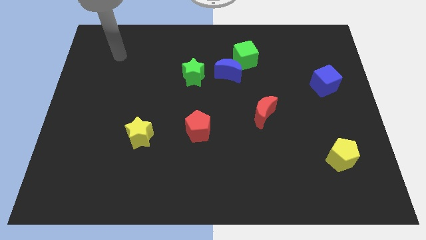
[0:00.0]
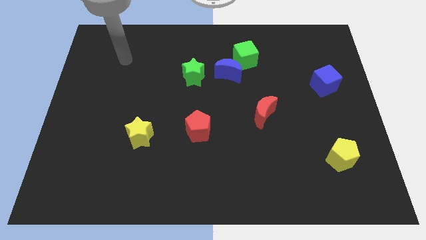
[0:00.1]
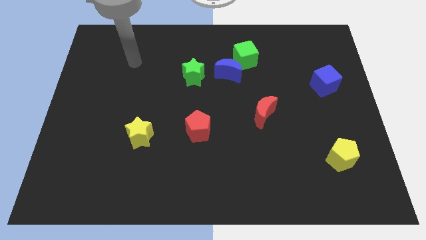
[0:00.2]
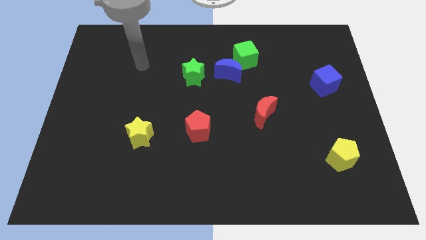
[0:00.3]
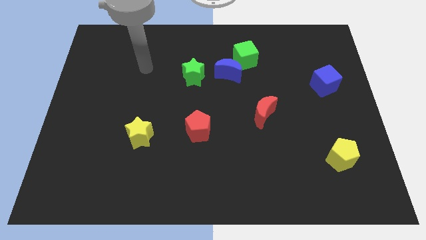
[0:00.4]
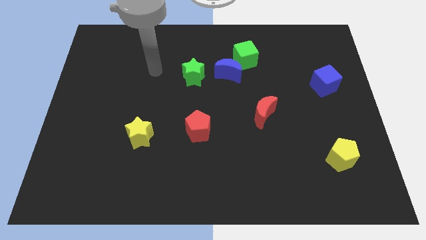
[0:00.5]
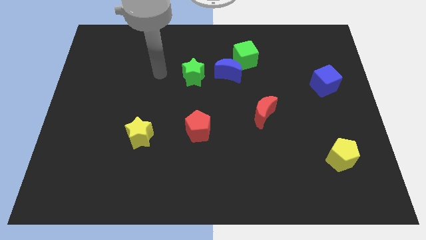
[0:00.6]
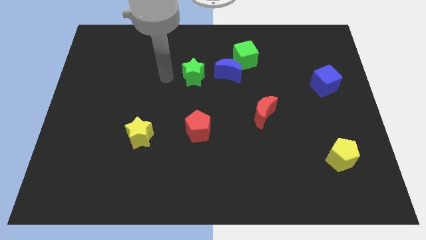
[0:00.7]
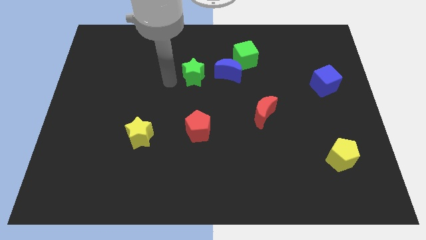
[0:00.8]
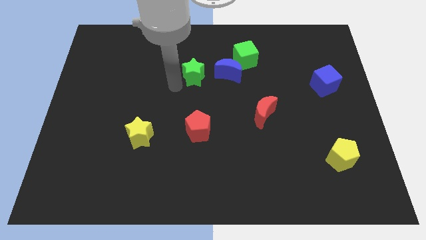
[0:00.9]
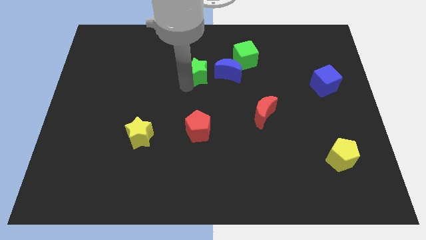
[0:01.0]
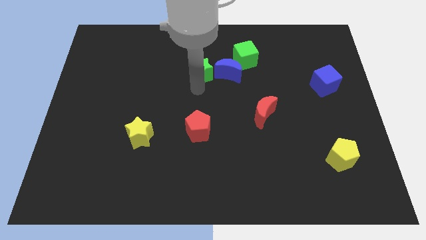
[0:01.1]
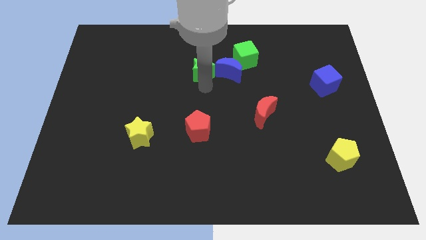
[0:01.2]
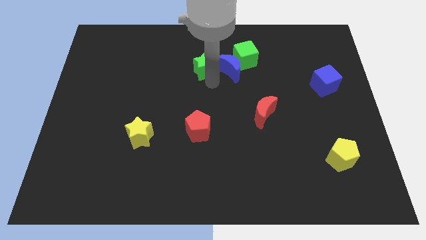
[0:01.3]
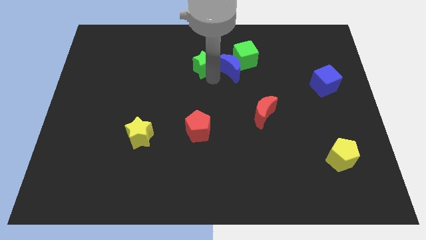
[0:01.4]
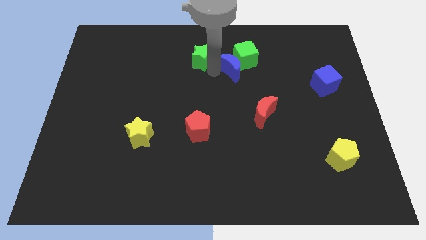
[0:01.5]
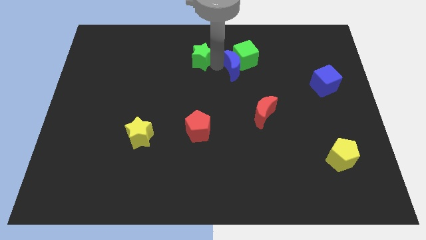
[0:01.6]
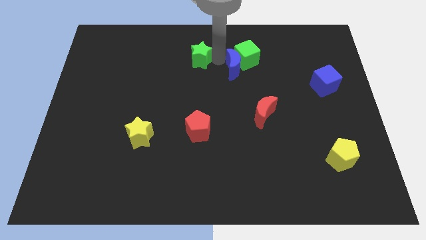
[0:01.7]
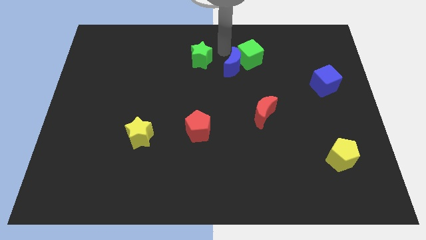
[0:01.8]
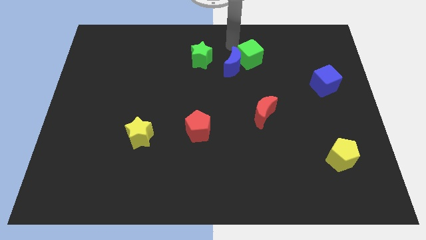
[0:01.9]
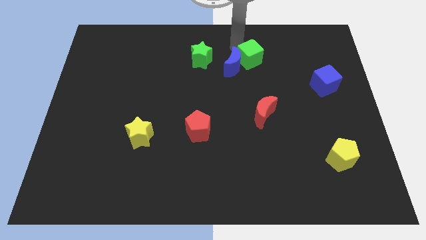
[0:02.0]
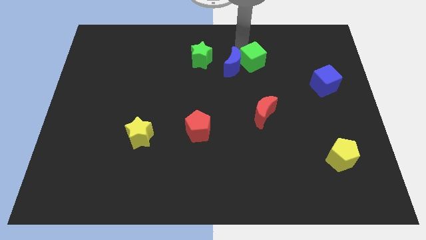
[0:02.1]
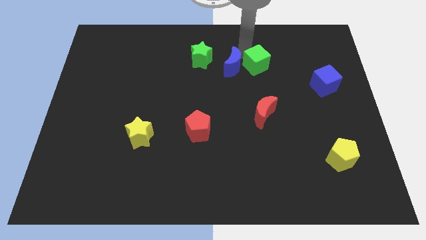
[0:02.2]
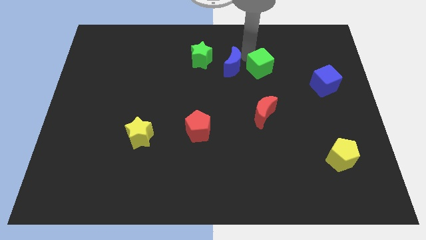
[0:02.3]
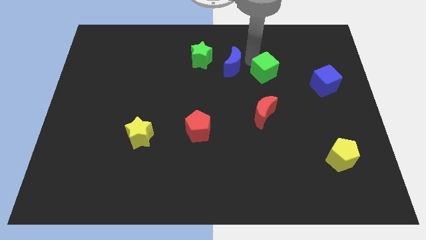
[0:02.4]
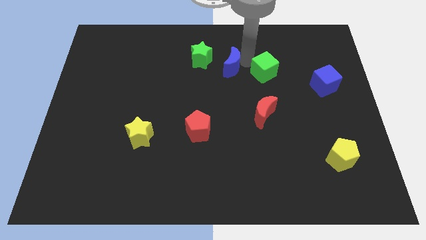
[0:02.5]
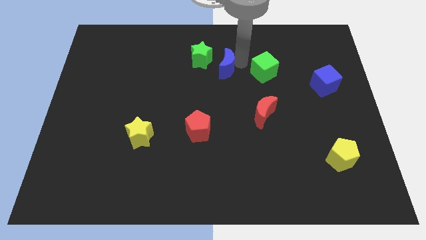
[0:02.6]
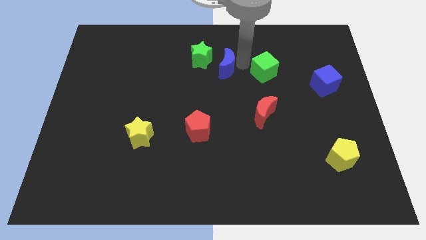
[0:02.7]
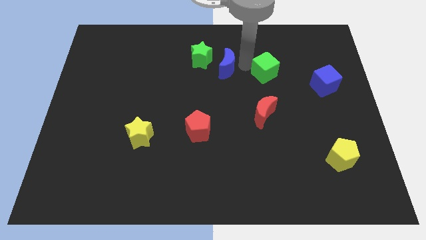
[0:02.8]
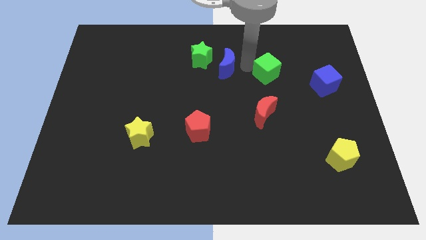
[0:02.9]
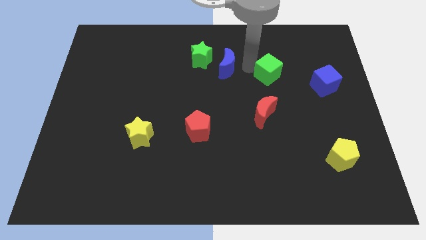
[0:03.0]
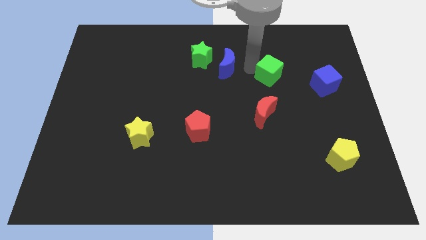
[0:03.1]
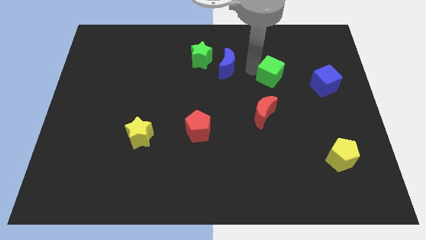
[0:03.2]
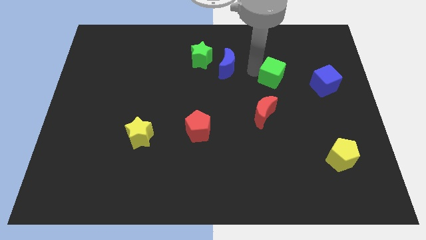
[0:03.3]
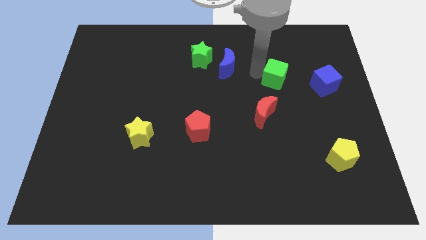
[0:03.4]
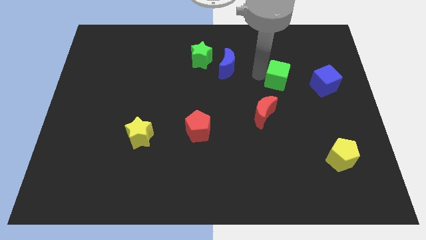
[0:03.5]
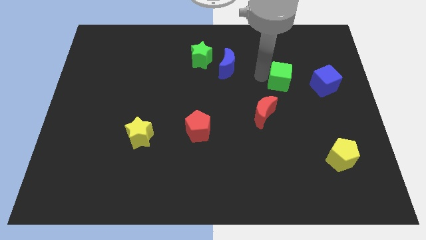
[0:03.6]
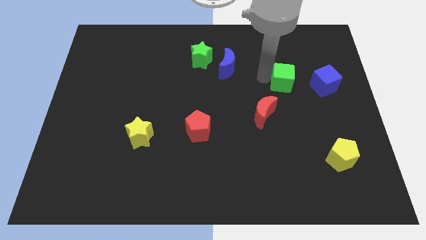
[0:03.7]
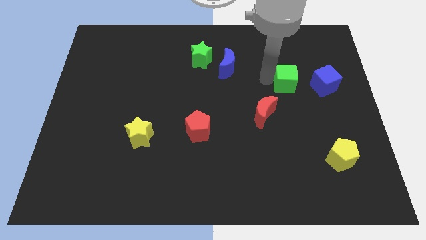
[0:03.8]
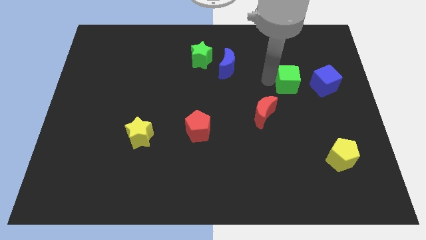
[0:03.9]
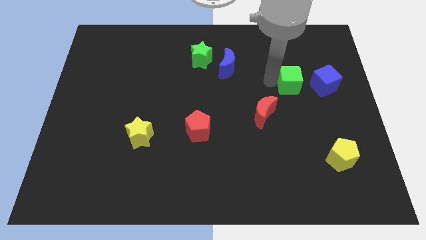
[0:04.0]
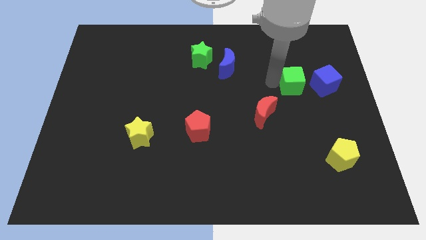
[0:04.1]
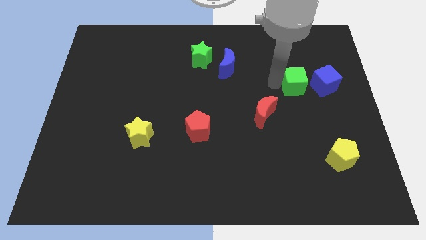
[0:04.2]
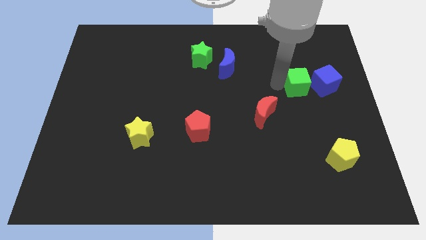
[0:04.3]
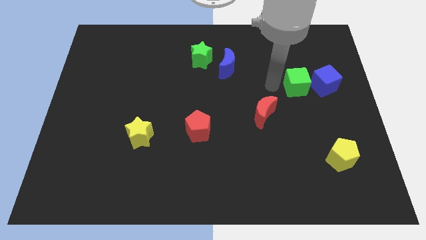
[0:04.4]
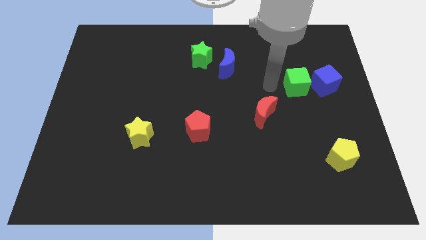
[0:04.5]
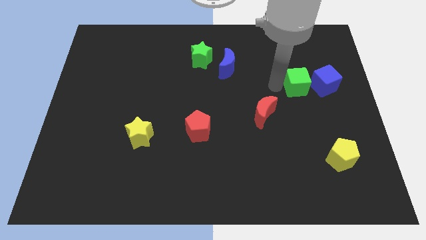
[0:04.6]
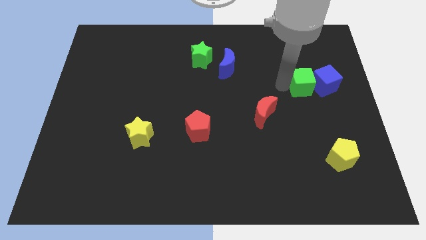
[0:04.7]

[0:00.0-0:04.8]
slide the green cube next to the blue cube

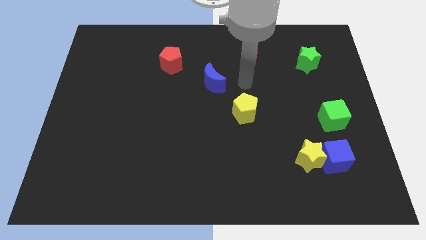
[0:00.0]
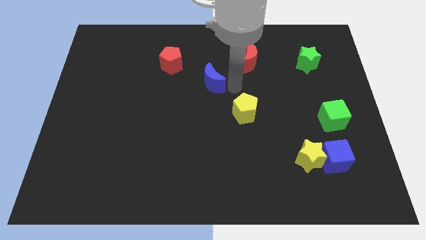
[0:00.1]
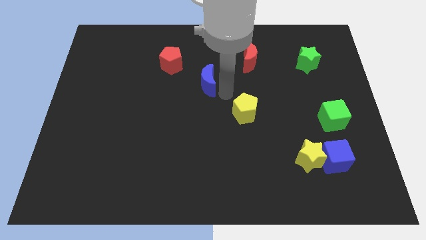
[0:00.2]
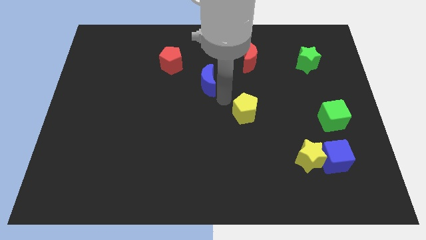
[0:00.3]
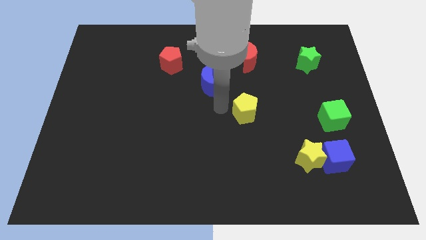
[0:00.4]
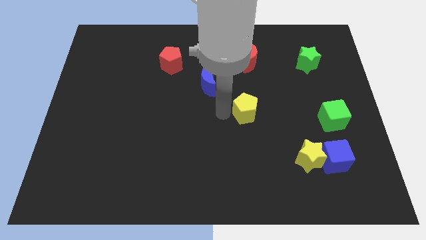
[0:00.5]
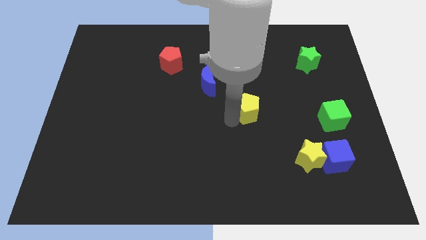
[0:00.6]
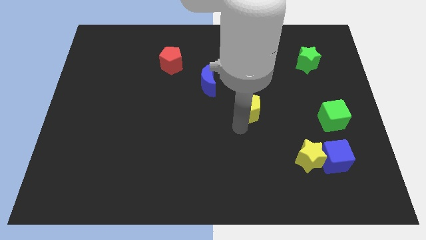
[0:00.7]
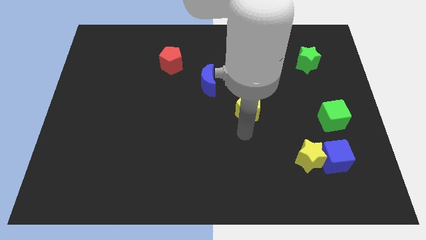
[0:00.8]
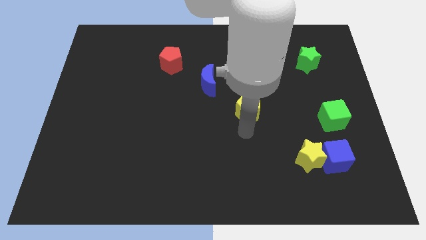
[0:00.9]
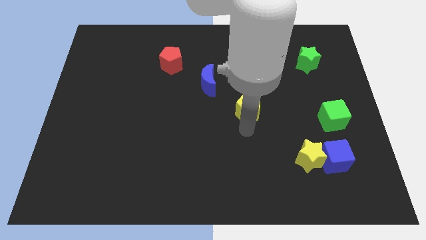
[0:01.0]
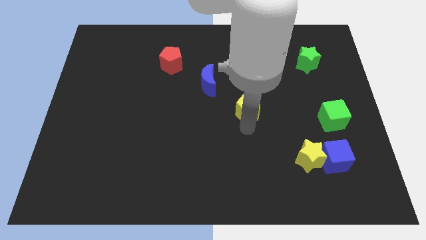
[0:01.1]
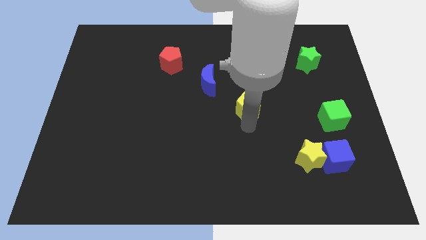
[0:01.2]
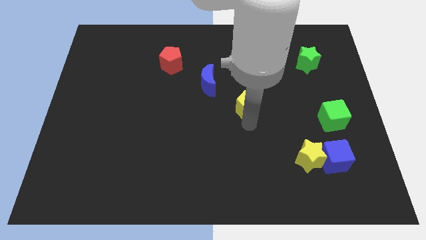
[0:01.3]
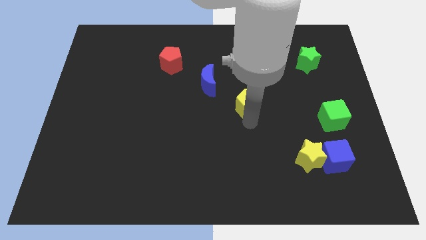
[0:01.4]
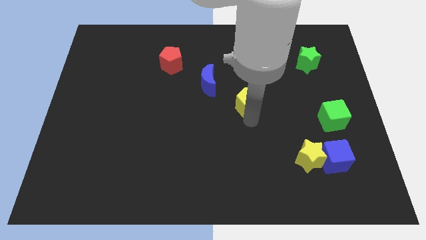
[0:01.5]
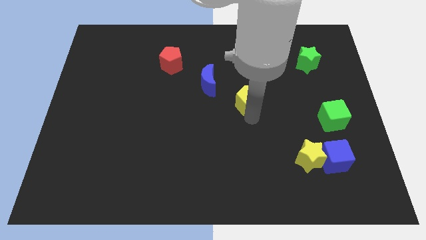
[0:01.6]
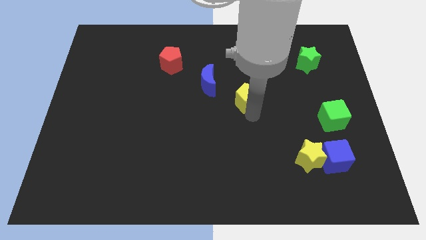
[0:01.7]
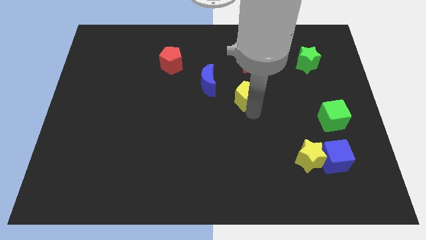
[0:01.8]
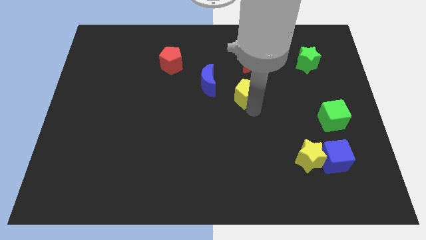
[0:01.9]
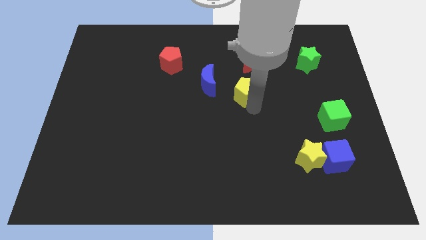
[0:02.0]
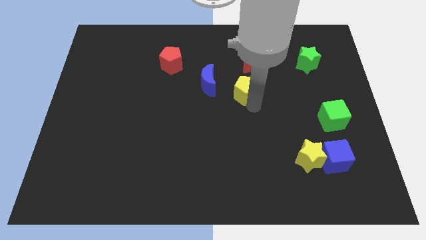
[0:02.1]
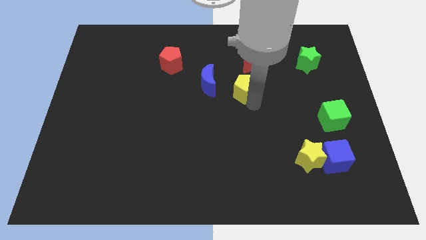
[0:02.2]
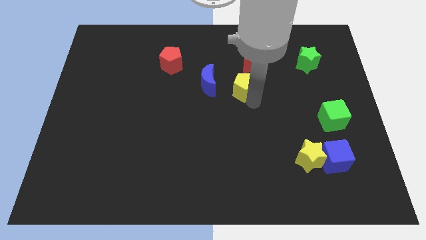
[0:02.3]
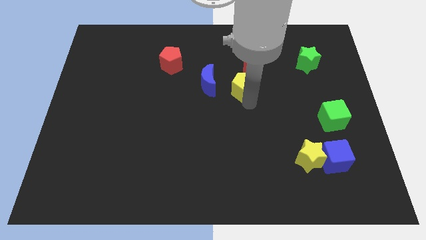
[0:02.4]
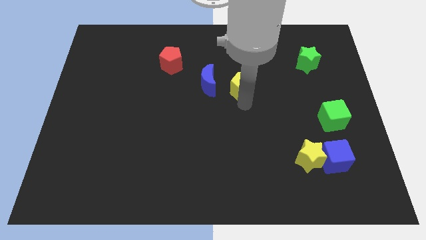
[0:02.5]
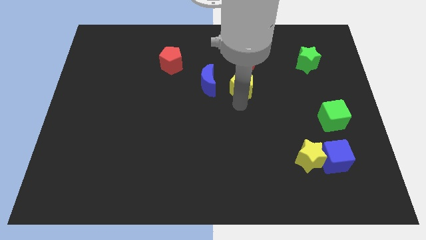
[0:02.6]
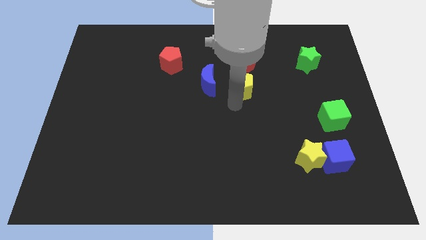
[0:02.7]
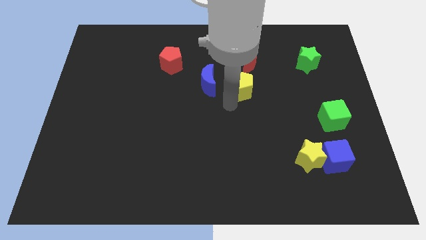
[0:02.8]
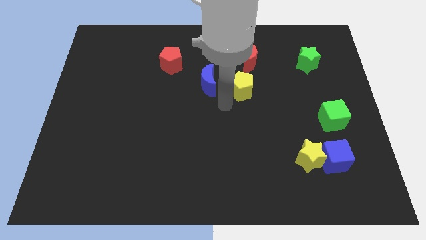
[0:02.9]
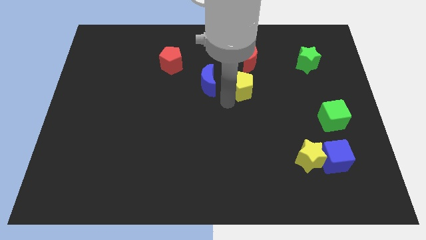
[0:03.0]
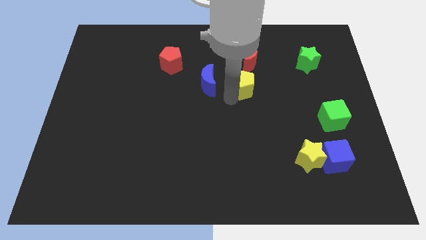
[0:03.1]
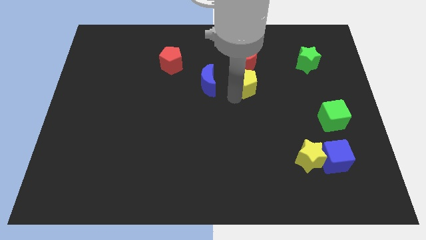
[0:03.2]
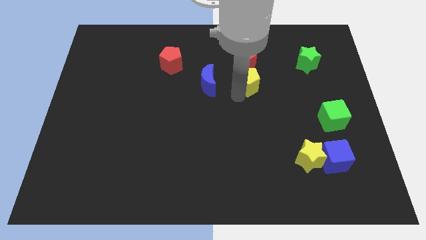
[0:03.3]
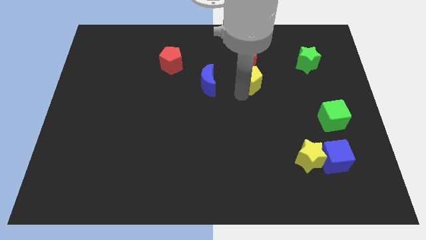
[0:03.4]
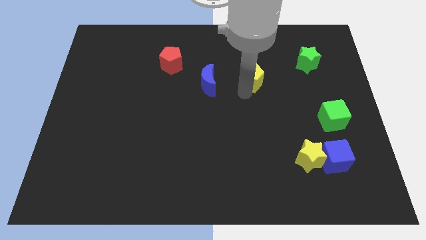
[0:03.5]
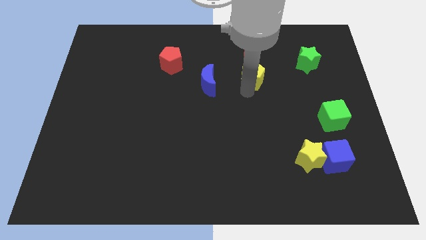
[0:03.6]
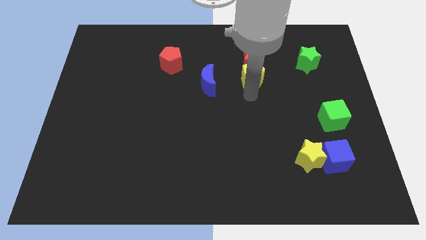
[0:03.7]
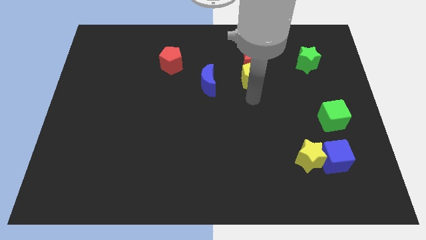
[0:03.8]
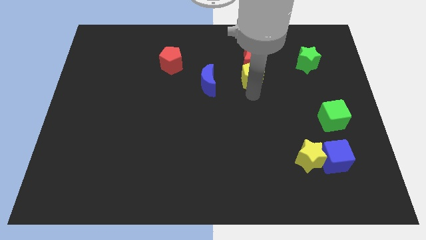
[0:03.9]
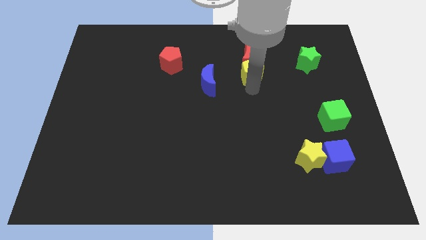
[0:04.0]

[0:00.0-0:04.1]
put the yellow pentagon towards the red moon
